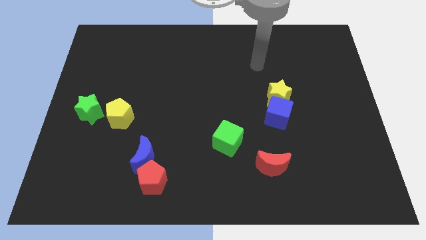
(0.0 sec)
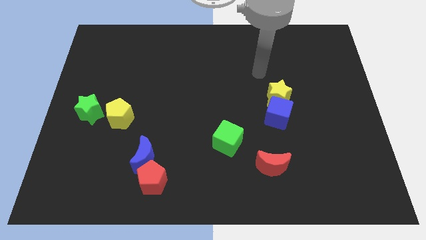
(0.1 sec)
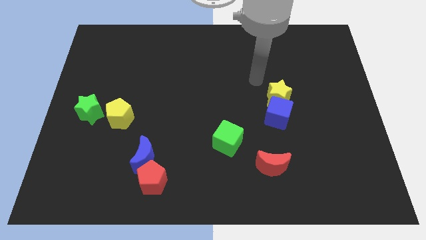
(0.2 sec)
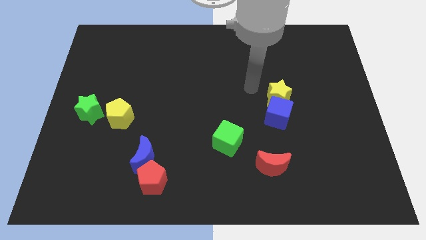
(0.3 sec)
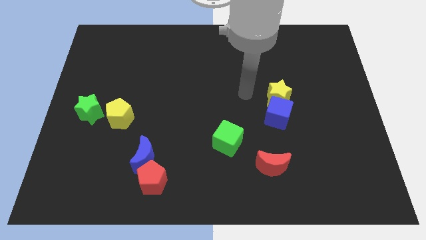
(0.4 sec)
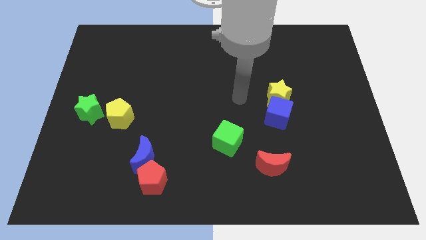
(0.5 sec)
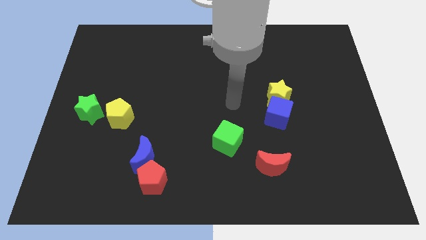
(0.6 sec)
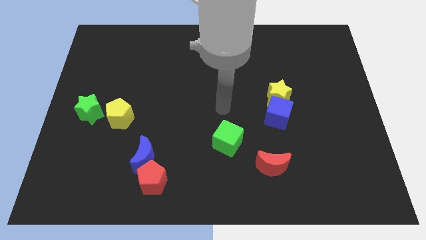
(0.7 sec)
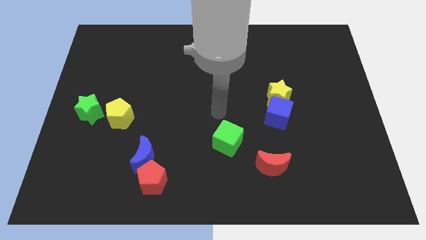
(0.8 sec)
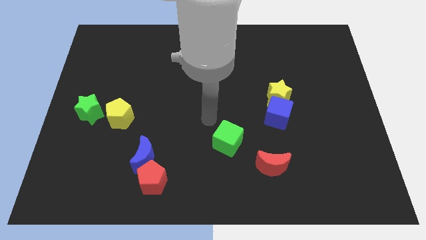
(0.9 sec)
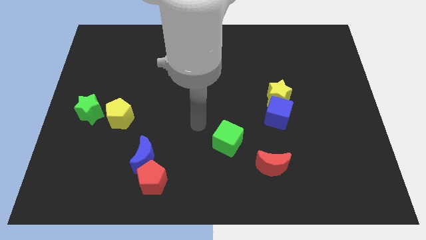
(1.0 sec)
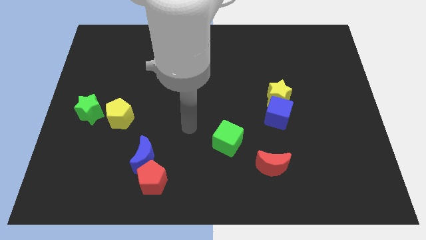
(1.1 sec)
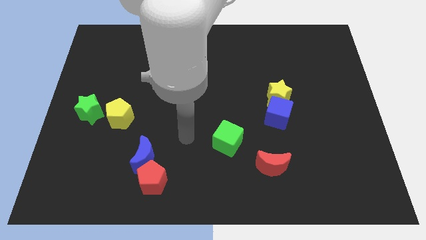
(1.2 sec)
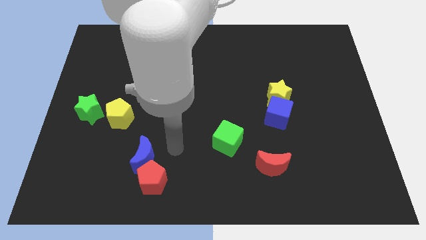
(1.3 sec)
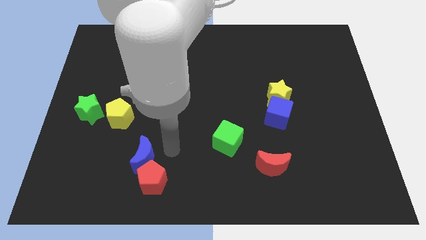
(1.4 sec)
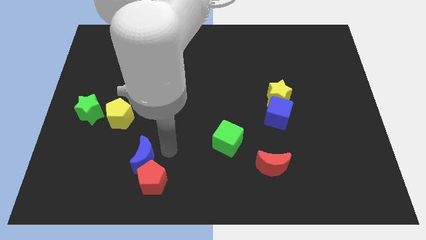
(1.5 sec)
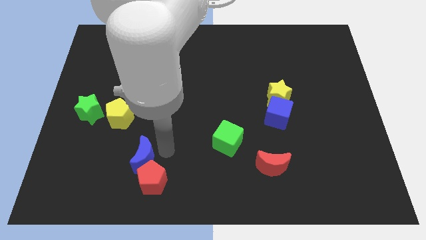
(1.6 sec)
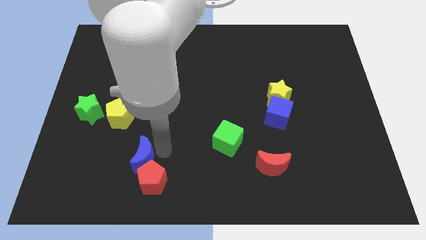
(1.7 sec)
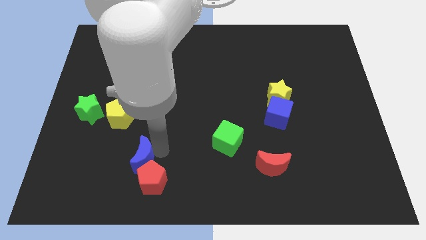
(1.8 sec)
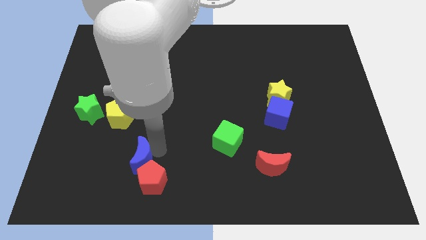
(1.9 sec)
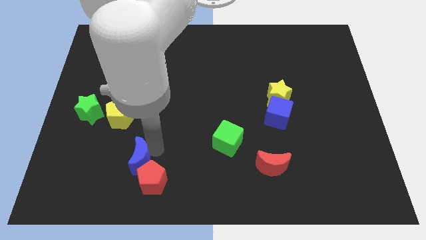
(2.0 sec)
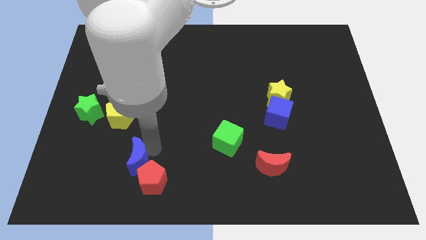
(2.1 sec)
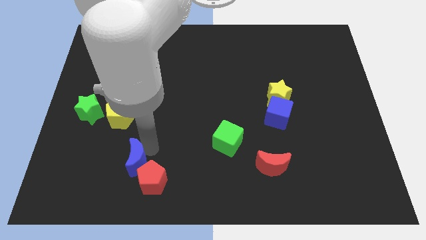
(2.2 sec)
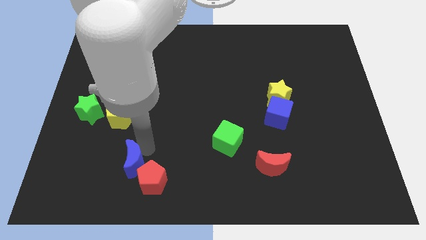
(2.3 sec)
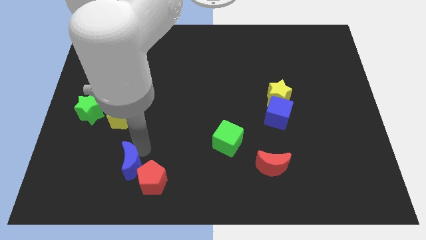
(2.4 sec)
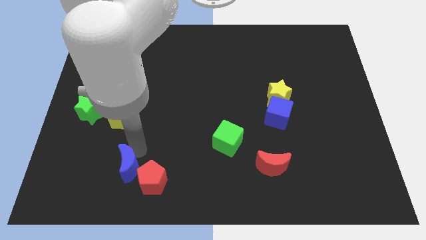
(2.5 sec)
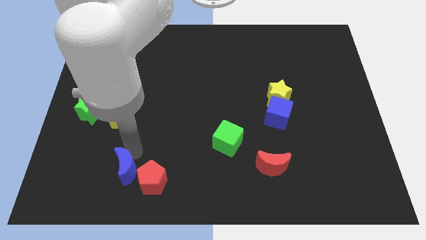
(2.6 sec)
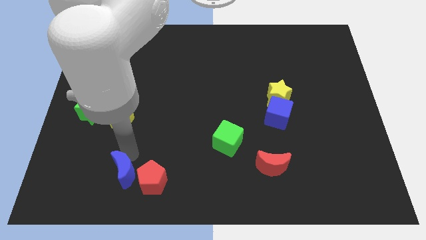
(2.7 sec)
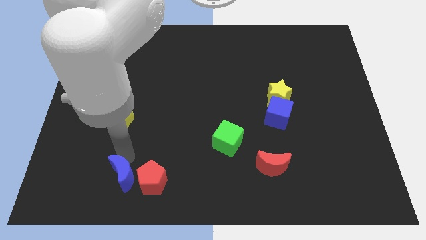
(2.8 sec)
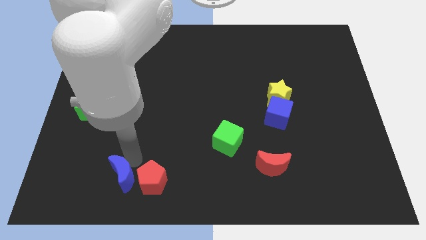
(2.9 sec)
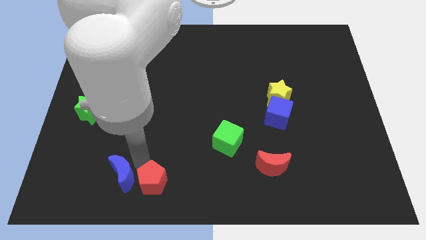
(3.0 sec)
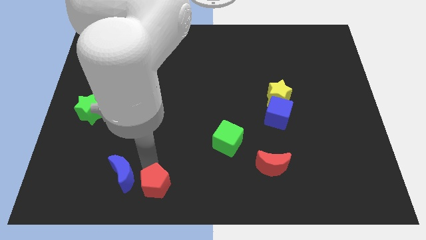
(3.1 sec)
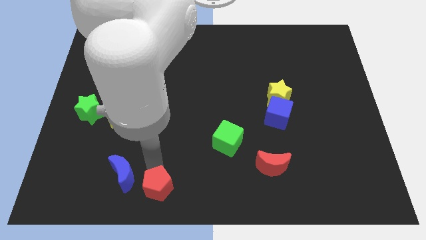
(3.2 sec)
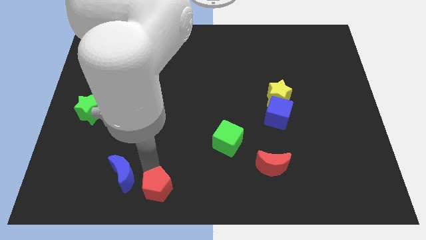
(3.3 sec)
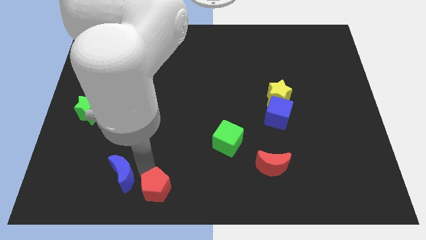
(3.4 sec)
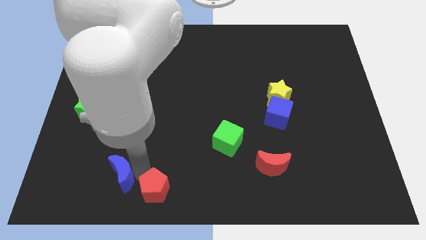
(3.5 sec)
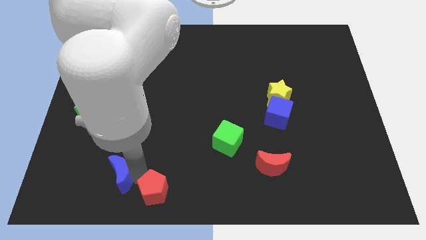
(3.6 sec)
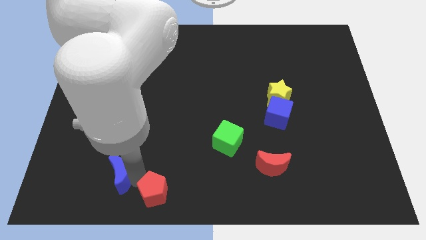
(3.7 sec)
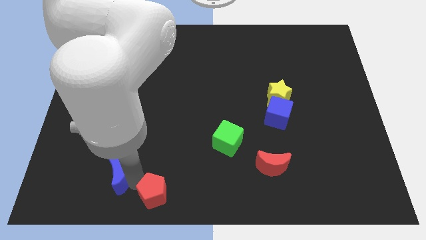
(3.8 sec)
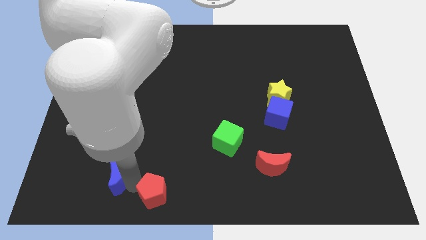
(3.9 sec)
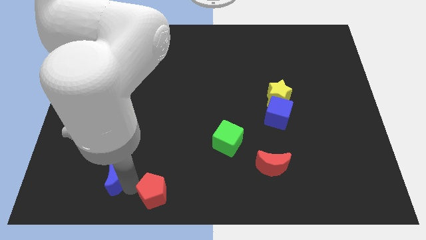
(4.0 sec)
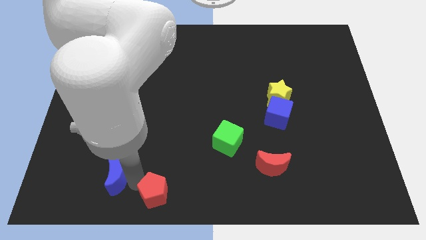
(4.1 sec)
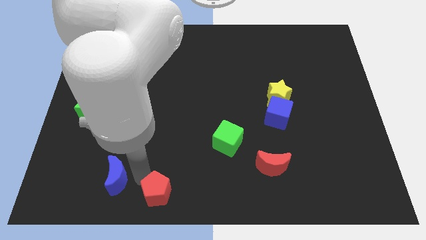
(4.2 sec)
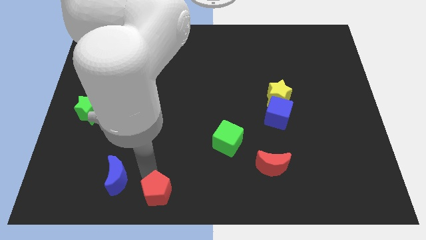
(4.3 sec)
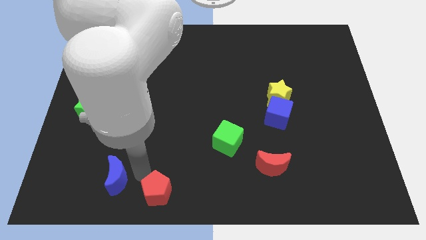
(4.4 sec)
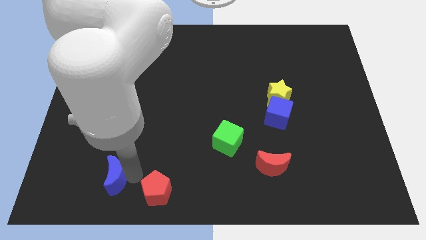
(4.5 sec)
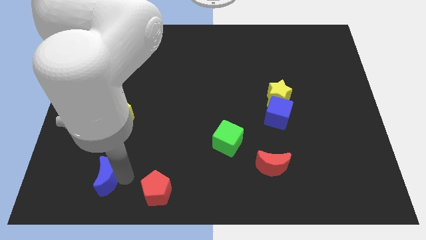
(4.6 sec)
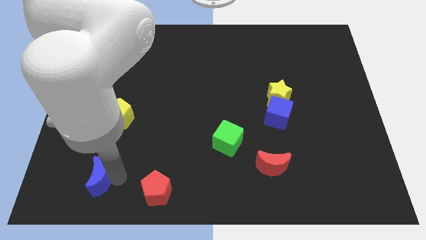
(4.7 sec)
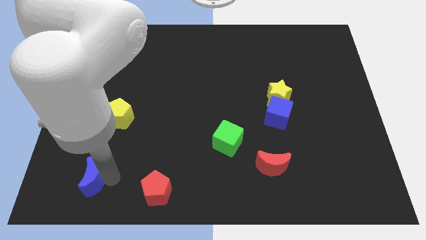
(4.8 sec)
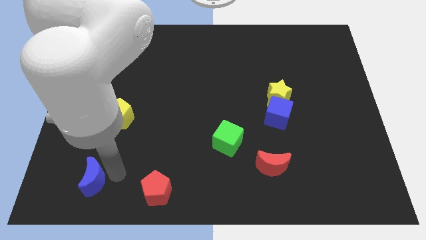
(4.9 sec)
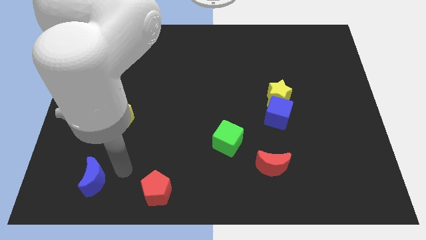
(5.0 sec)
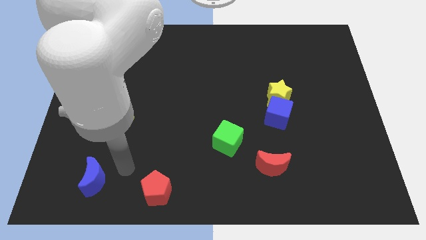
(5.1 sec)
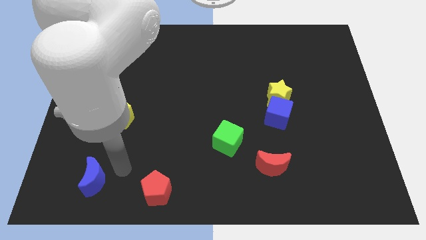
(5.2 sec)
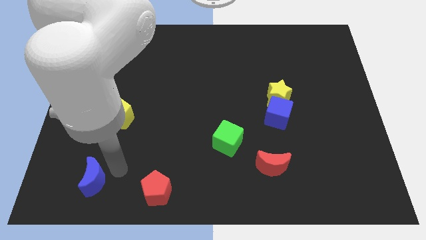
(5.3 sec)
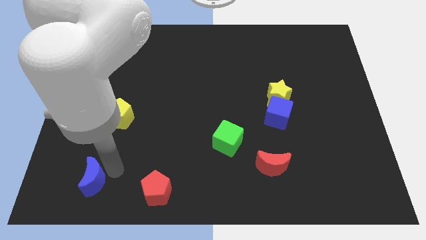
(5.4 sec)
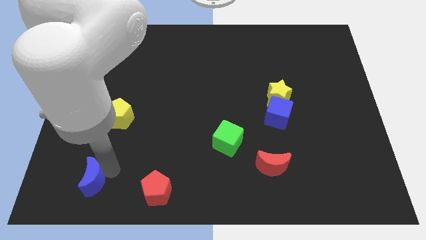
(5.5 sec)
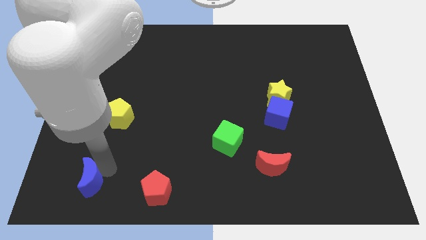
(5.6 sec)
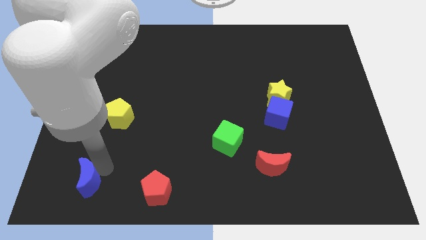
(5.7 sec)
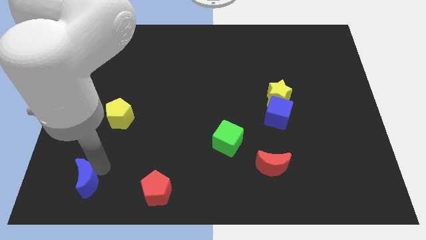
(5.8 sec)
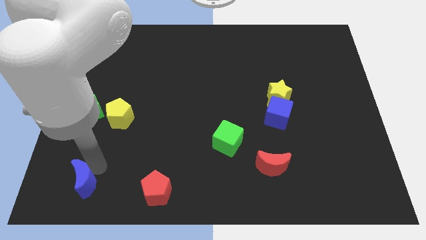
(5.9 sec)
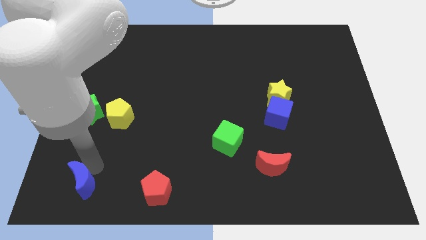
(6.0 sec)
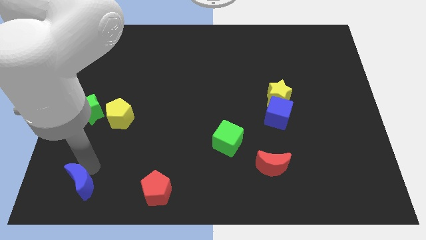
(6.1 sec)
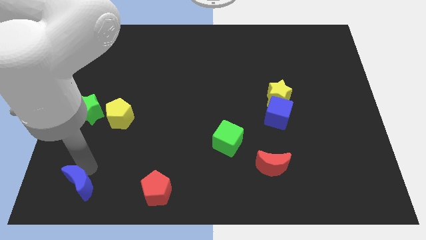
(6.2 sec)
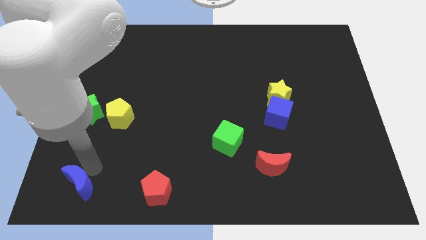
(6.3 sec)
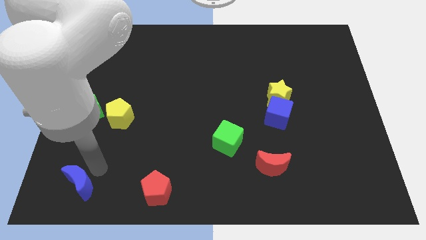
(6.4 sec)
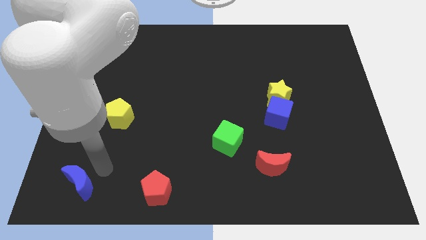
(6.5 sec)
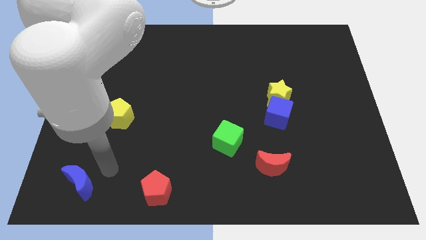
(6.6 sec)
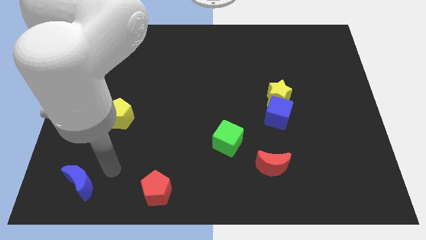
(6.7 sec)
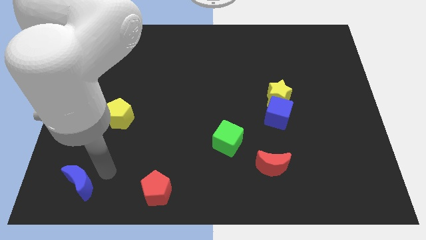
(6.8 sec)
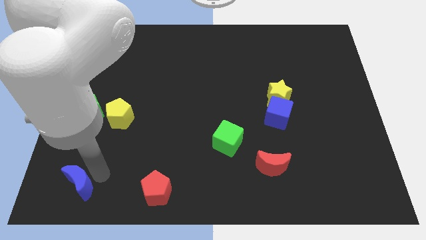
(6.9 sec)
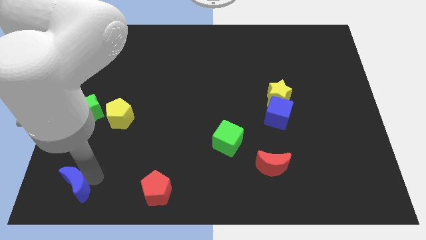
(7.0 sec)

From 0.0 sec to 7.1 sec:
put the blue moon to the lower left corner
